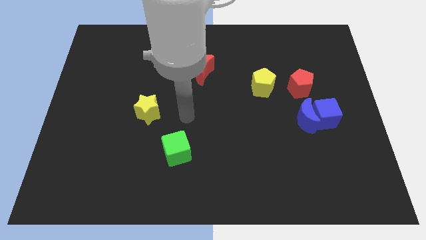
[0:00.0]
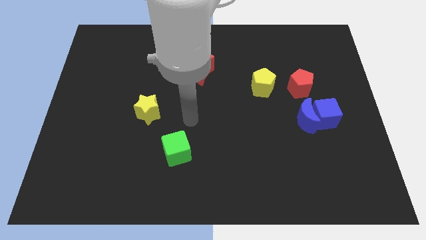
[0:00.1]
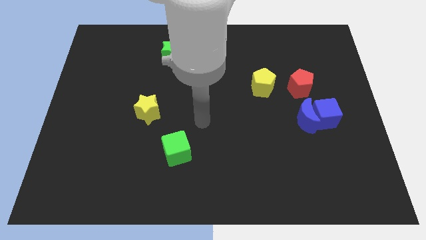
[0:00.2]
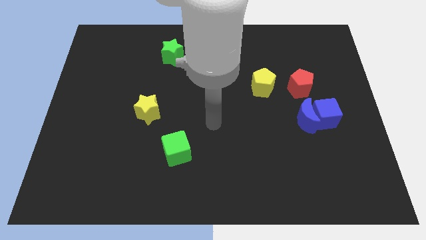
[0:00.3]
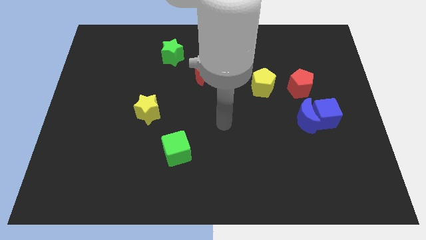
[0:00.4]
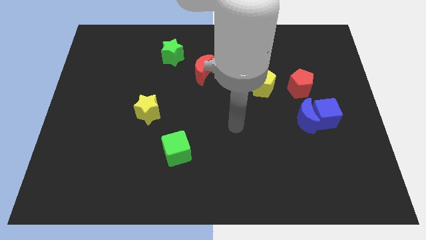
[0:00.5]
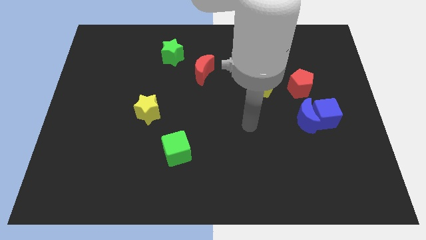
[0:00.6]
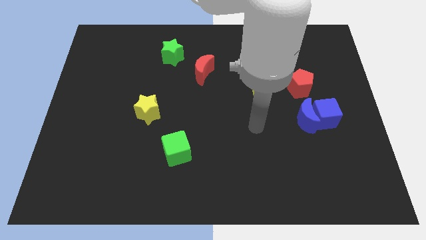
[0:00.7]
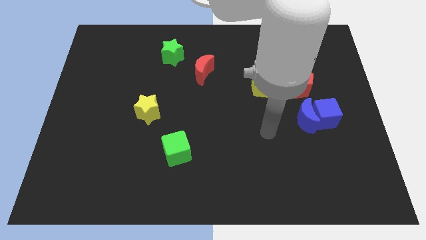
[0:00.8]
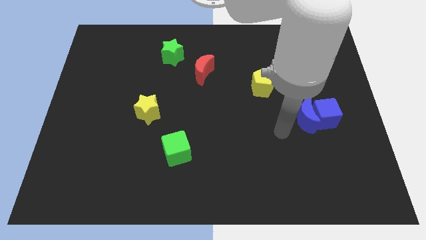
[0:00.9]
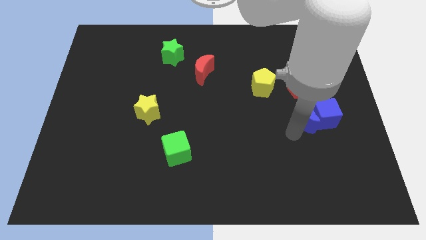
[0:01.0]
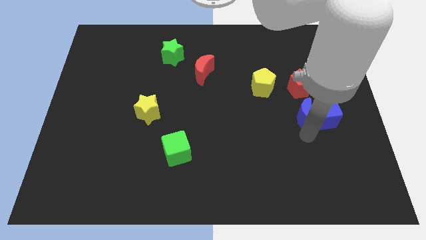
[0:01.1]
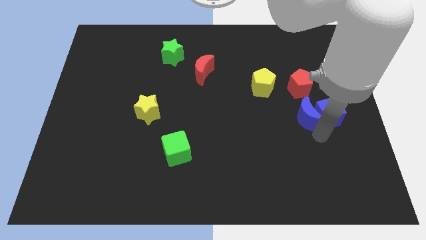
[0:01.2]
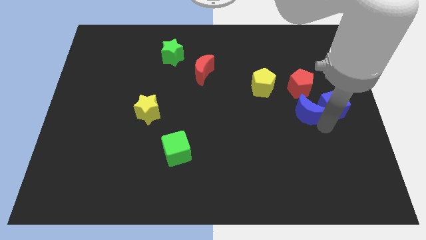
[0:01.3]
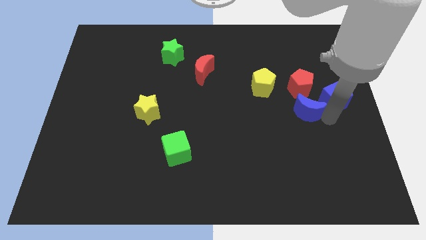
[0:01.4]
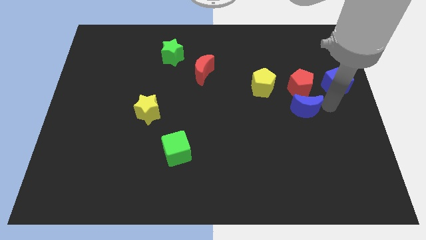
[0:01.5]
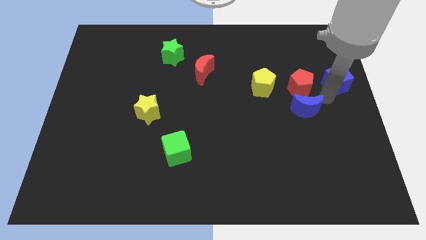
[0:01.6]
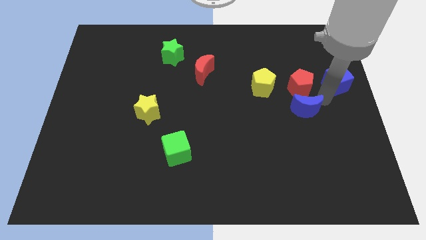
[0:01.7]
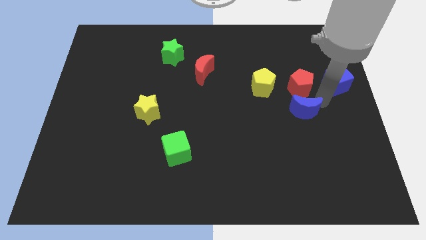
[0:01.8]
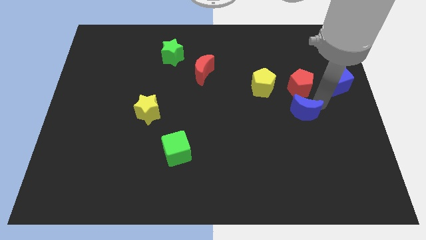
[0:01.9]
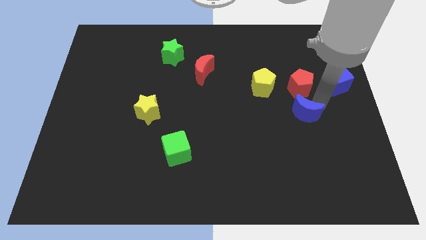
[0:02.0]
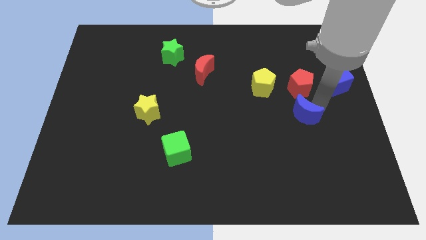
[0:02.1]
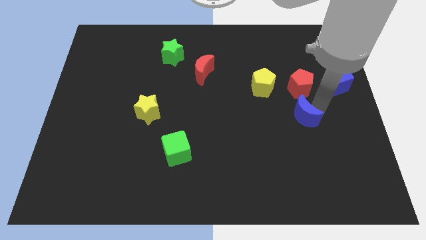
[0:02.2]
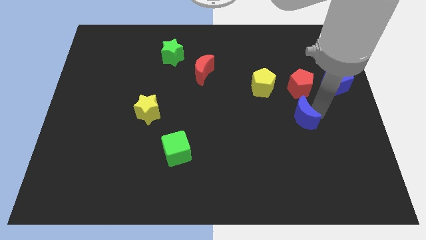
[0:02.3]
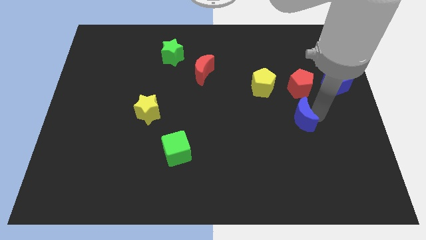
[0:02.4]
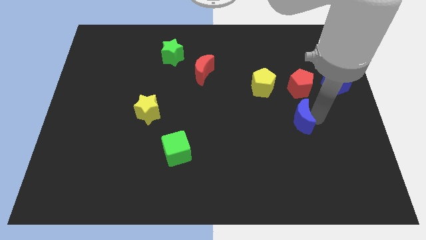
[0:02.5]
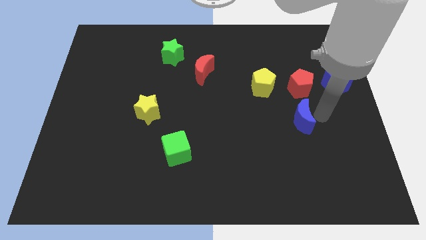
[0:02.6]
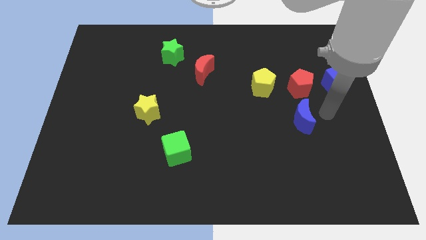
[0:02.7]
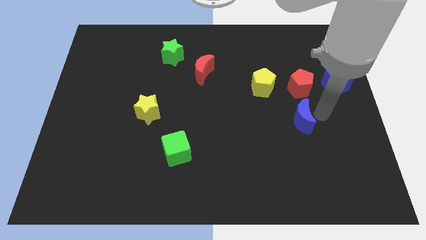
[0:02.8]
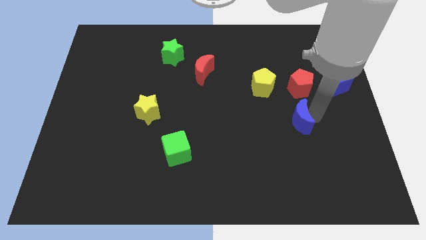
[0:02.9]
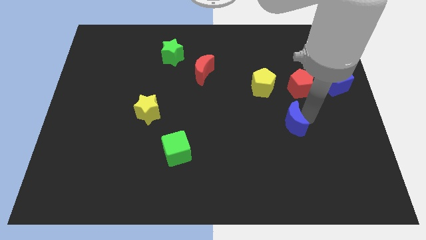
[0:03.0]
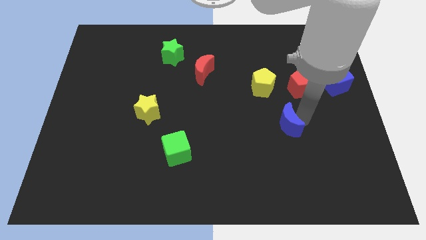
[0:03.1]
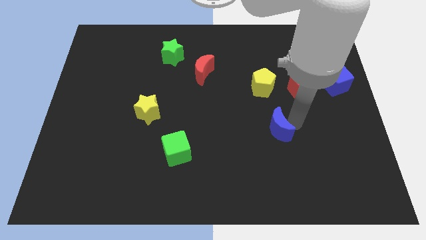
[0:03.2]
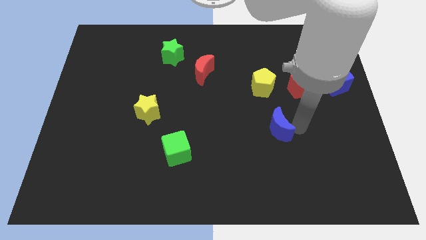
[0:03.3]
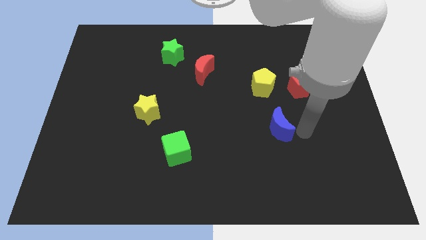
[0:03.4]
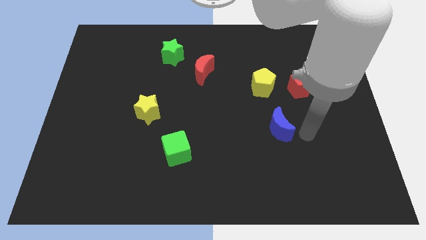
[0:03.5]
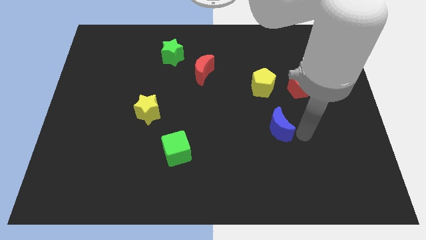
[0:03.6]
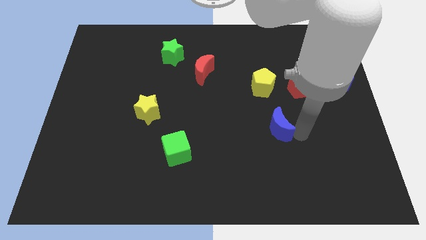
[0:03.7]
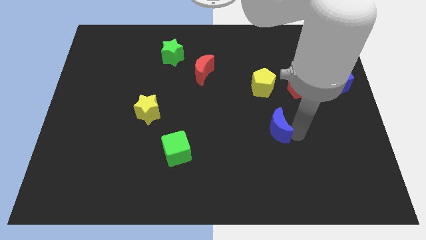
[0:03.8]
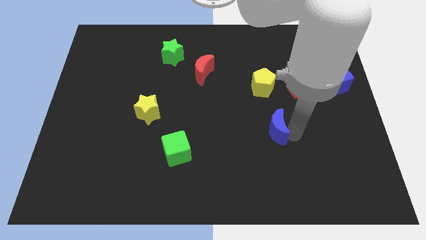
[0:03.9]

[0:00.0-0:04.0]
slightly move the blue moon to the left

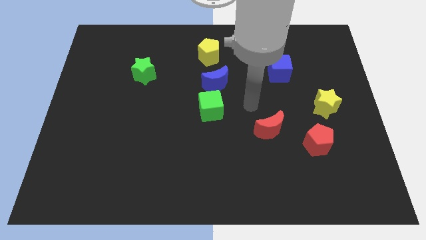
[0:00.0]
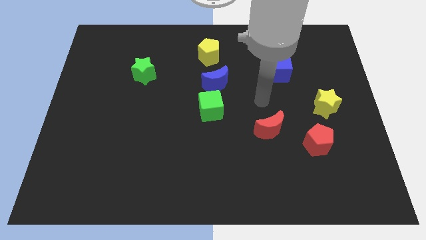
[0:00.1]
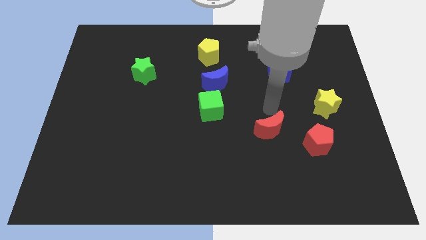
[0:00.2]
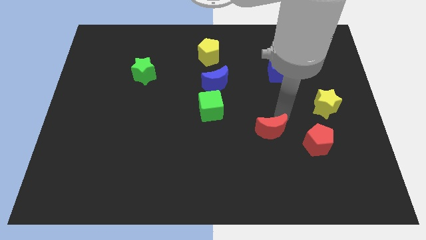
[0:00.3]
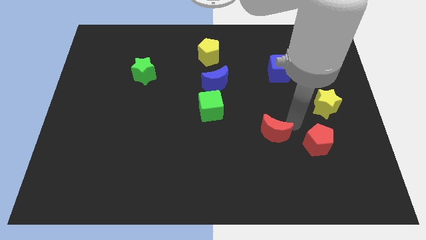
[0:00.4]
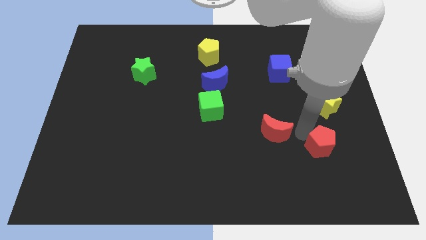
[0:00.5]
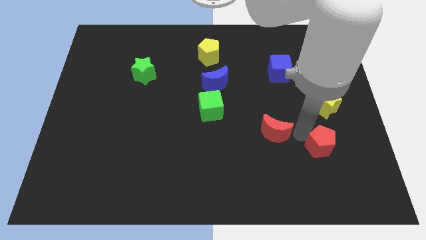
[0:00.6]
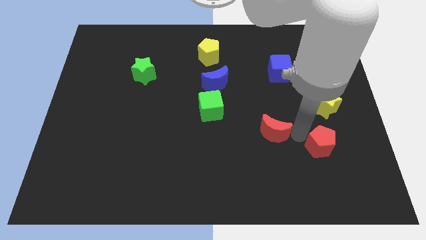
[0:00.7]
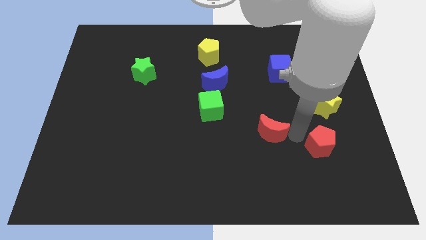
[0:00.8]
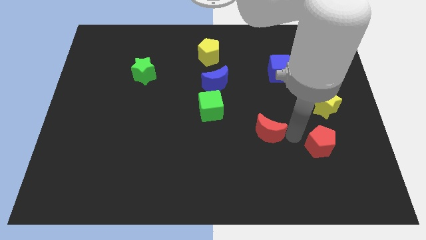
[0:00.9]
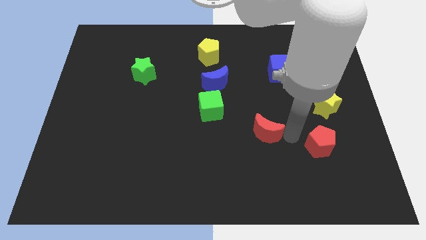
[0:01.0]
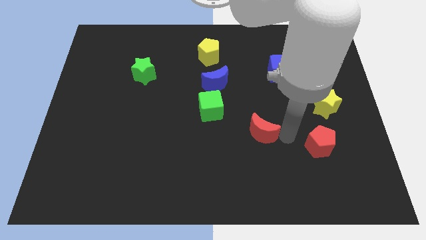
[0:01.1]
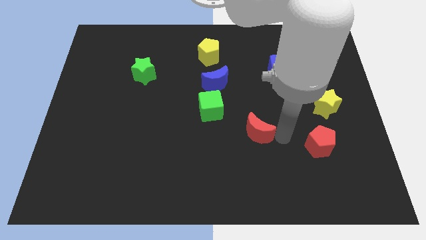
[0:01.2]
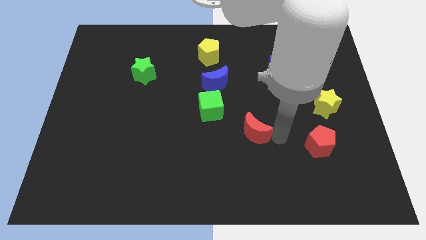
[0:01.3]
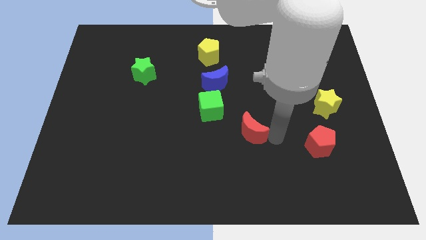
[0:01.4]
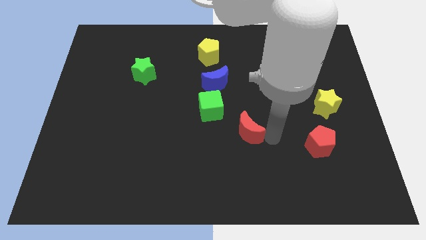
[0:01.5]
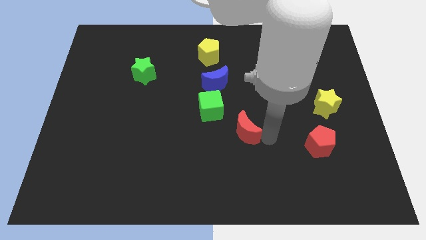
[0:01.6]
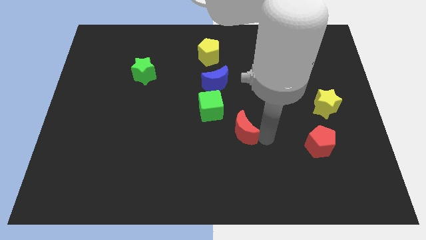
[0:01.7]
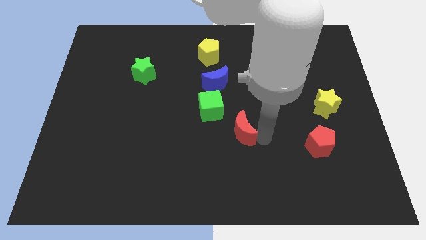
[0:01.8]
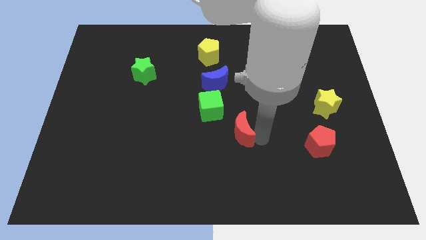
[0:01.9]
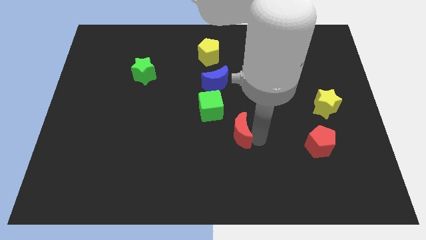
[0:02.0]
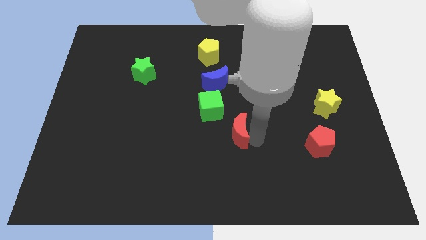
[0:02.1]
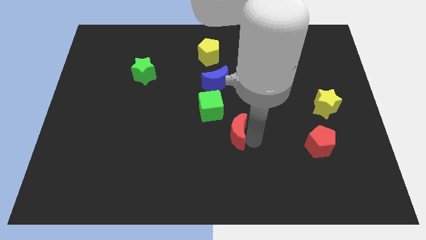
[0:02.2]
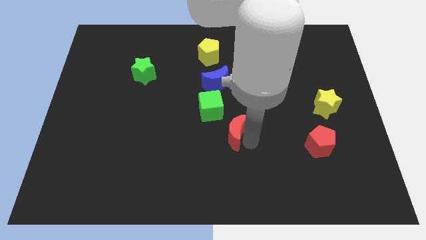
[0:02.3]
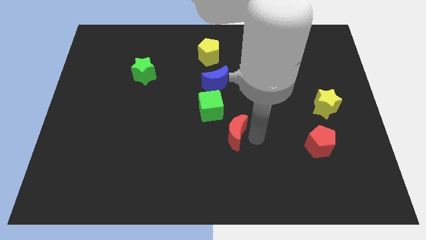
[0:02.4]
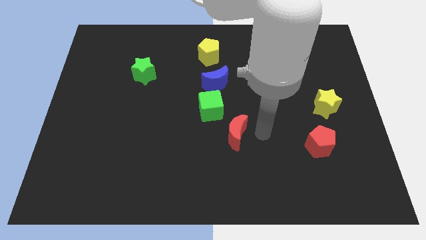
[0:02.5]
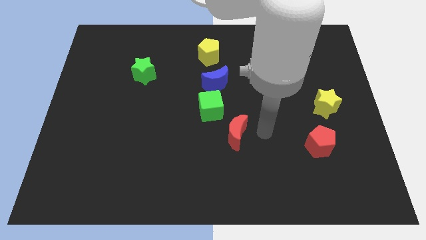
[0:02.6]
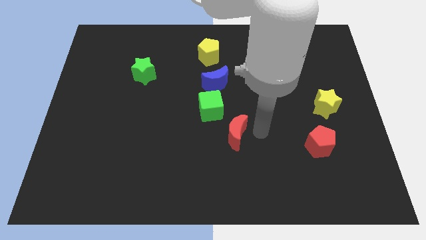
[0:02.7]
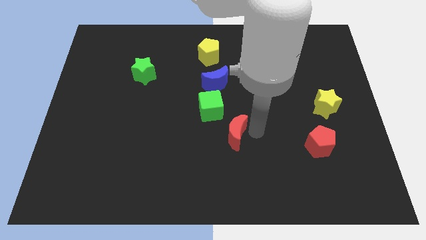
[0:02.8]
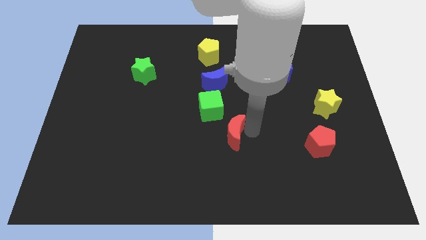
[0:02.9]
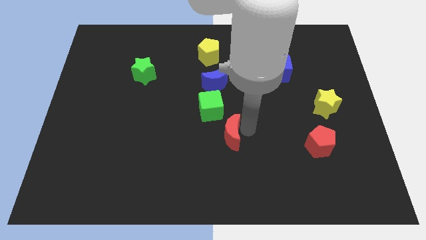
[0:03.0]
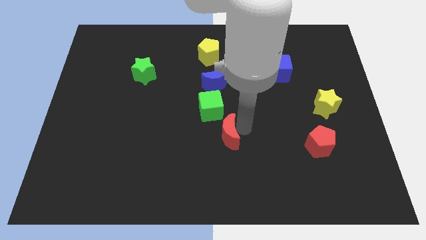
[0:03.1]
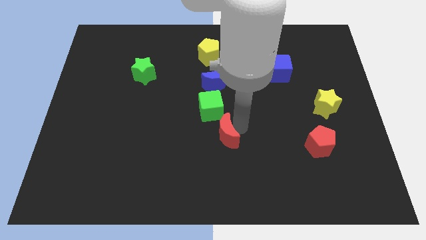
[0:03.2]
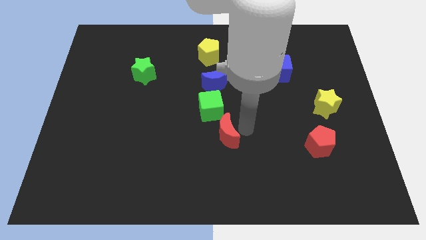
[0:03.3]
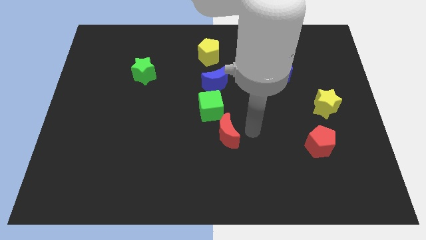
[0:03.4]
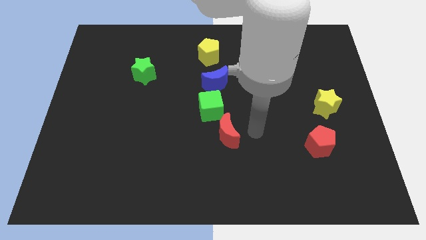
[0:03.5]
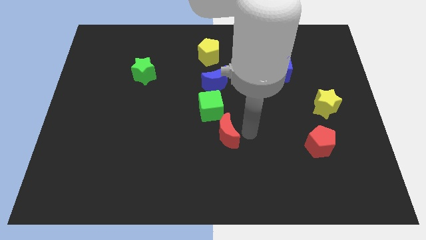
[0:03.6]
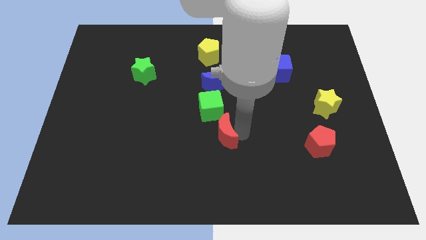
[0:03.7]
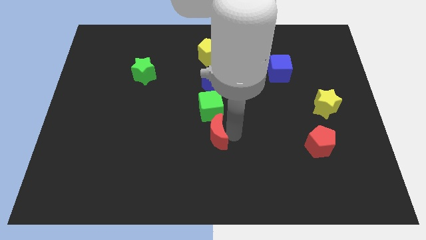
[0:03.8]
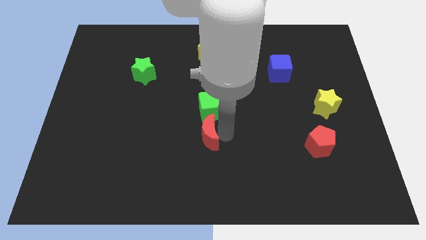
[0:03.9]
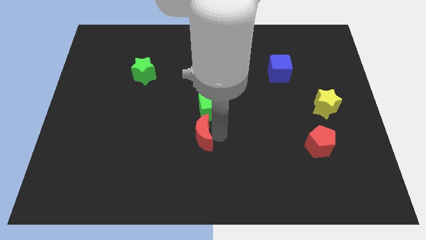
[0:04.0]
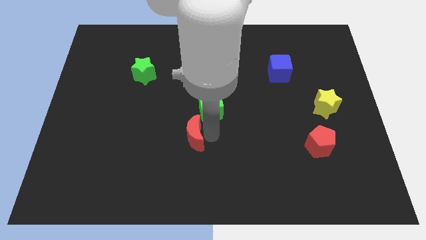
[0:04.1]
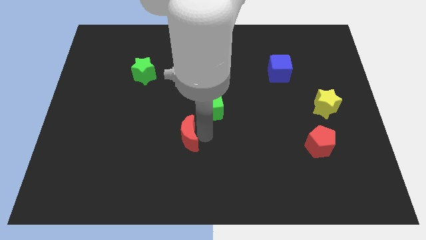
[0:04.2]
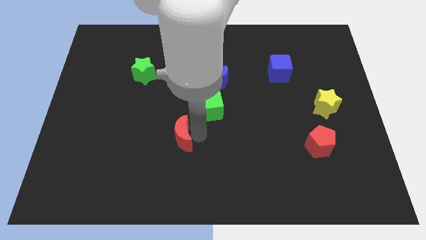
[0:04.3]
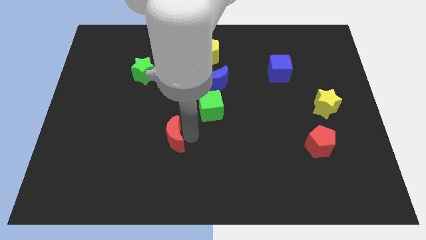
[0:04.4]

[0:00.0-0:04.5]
slide the red moon to the left
